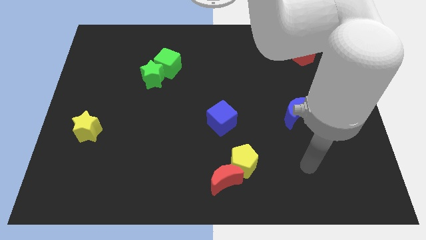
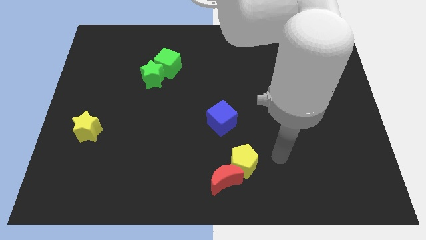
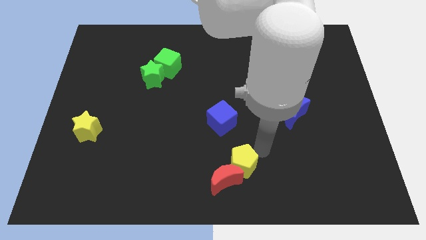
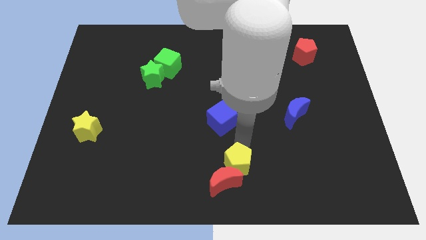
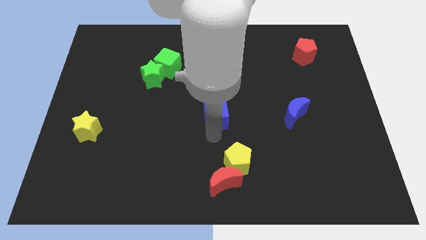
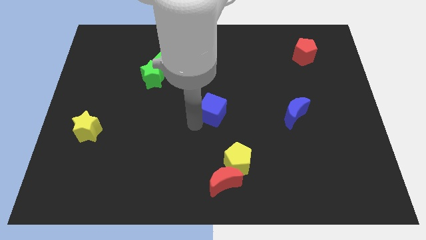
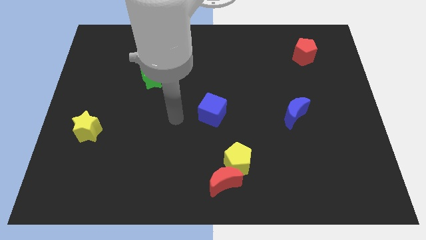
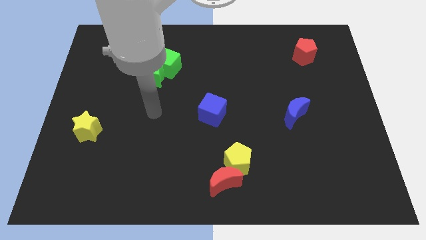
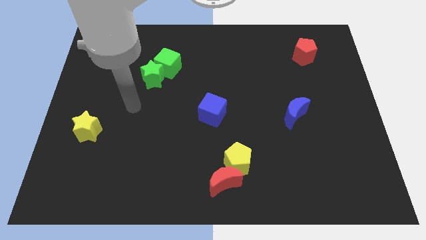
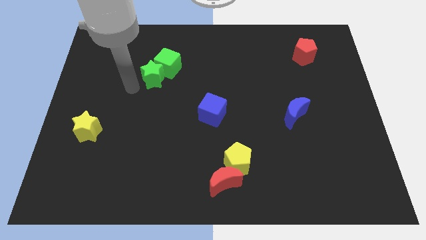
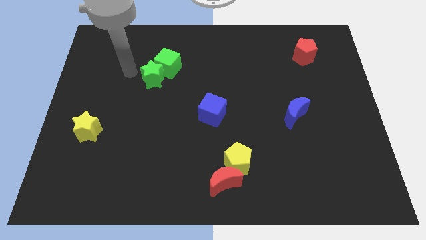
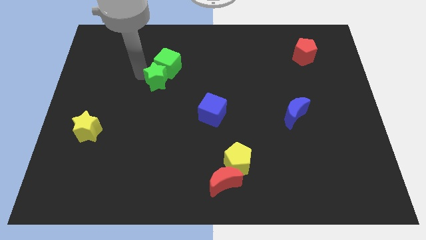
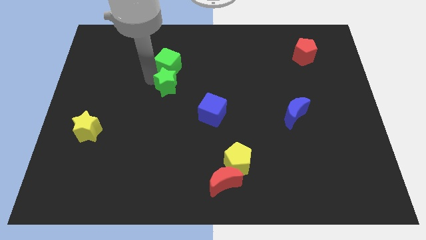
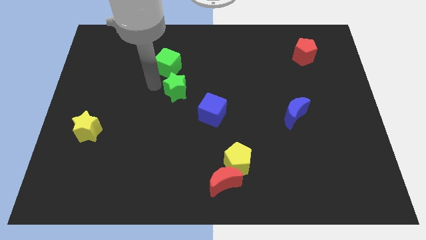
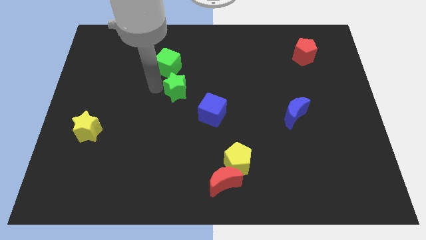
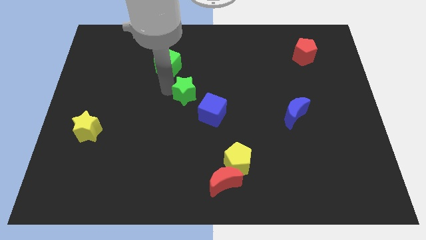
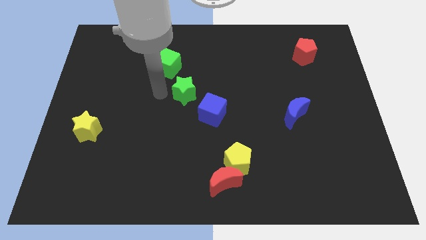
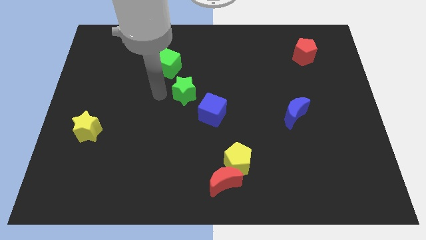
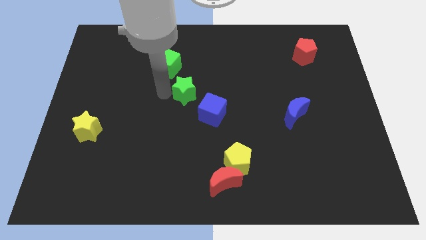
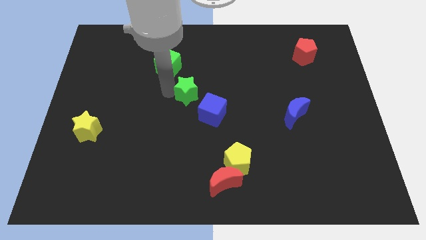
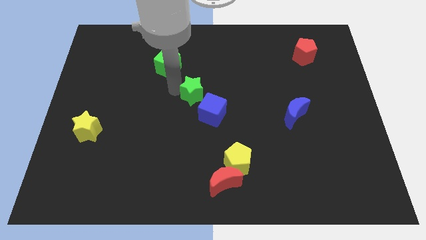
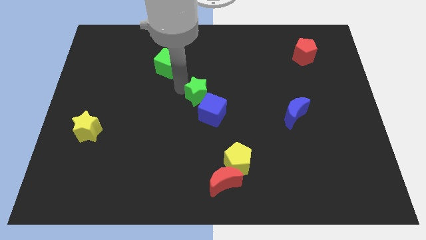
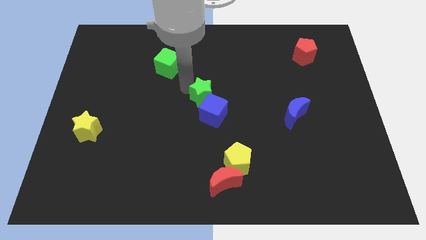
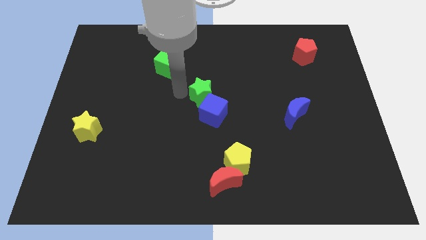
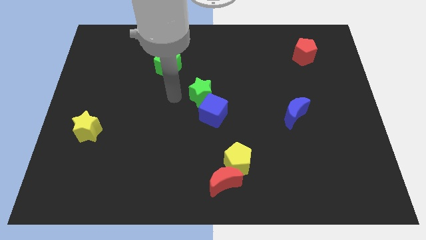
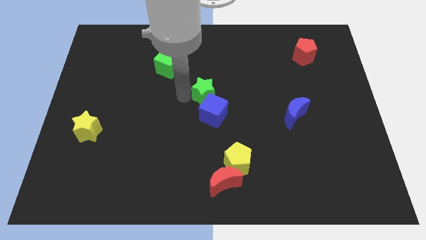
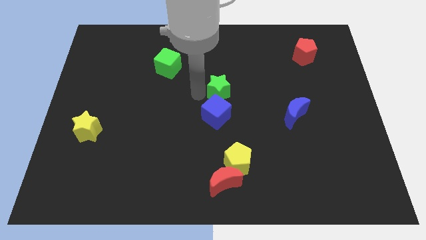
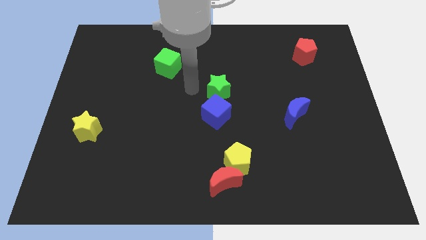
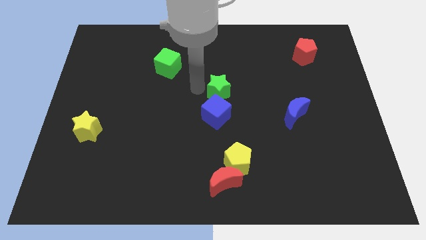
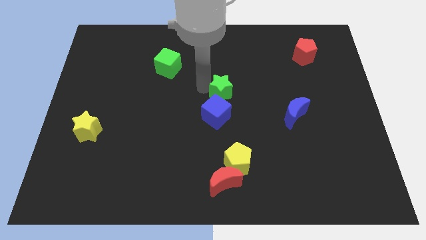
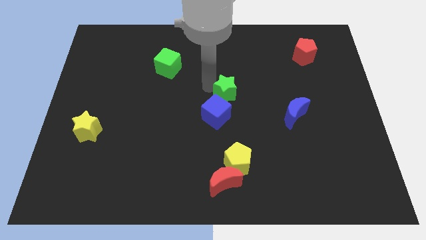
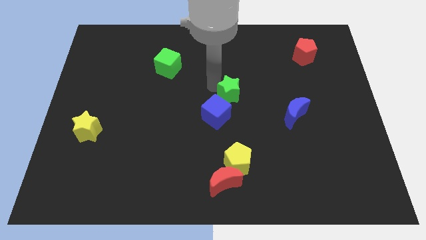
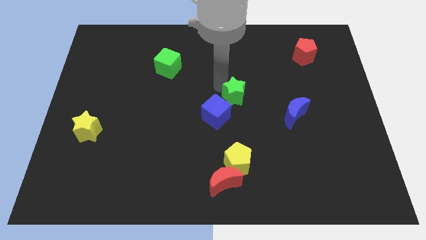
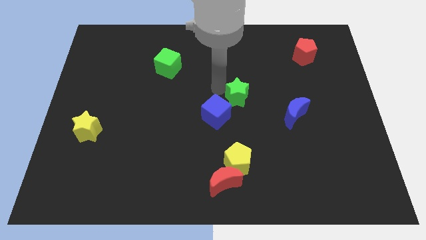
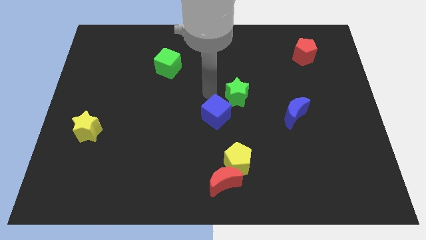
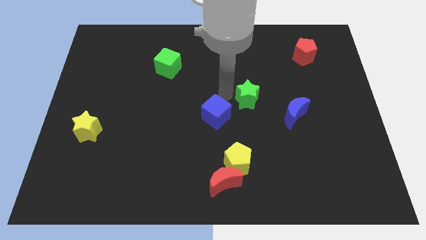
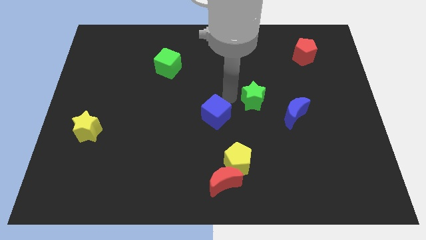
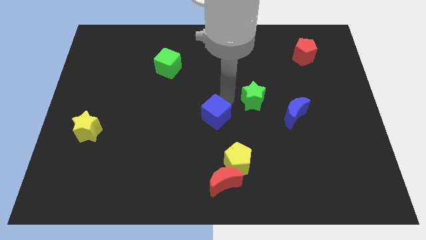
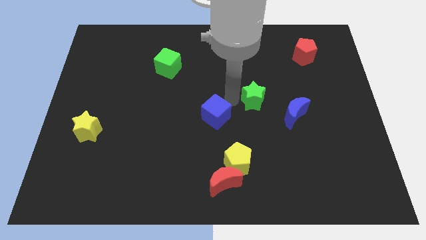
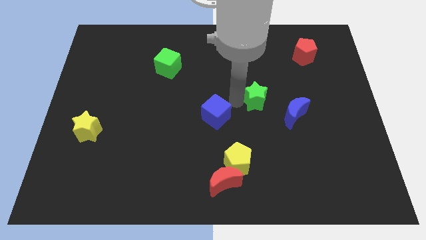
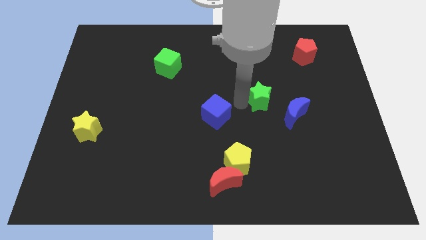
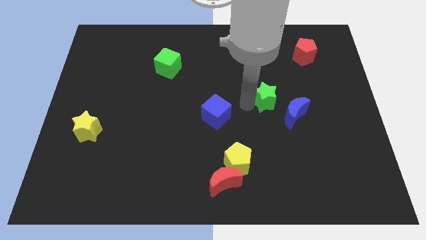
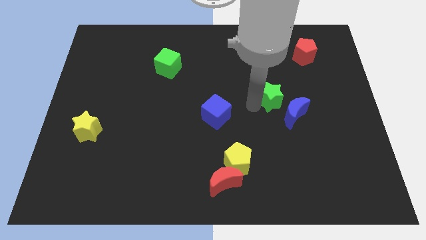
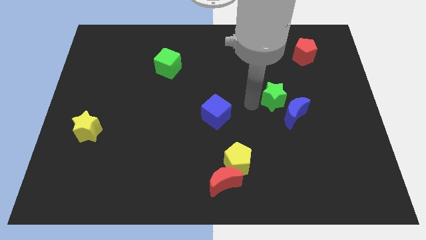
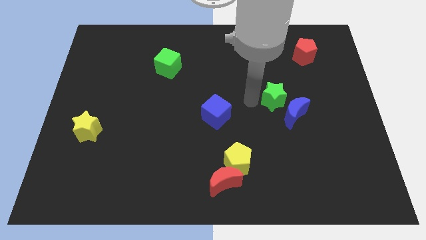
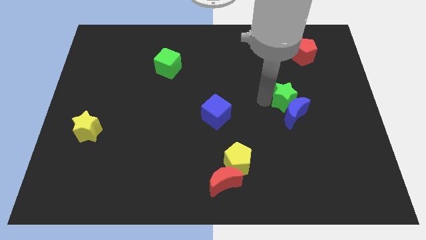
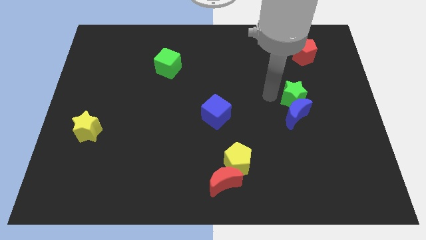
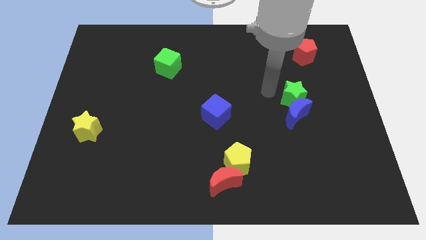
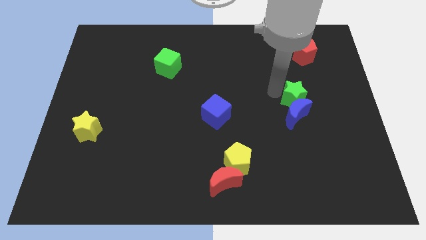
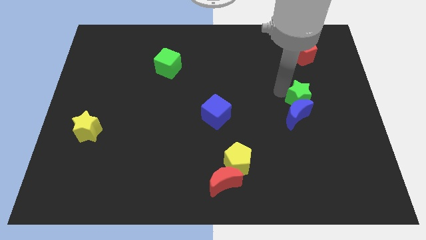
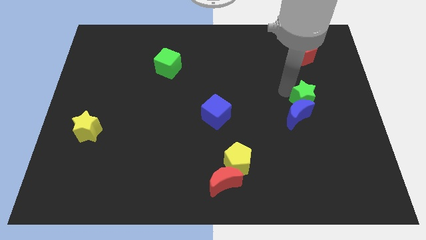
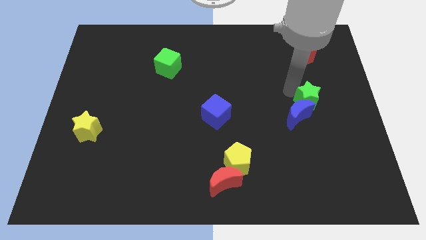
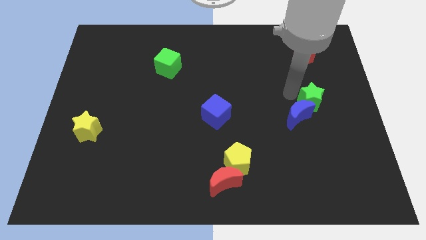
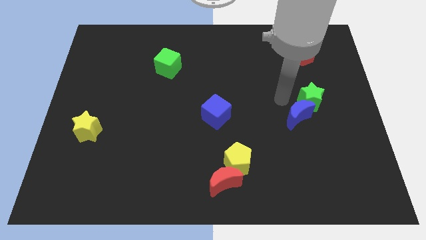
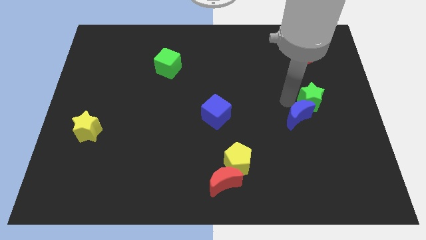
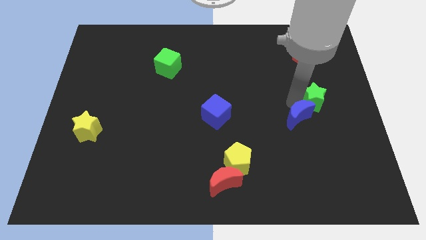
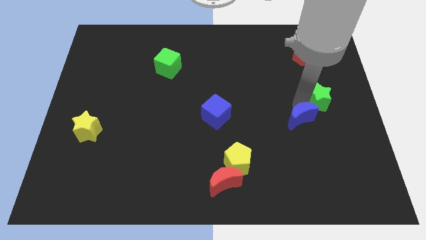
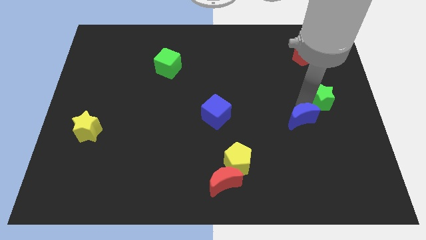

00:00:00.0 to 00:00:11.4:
move the green star to the right side of the board
